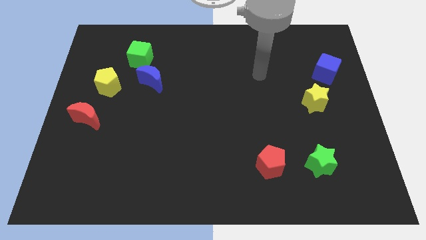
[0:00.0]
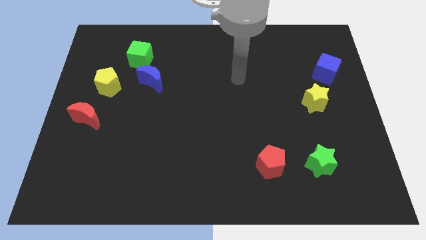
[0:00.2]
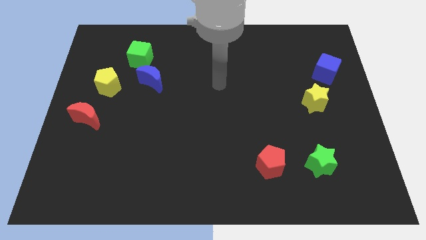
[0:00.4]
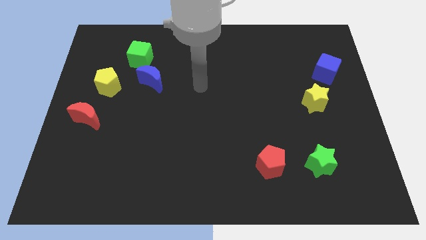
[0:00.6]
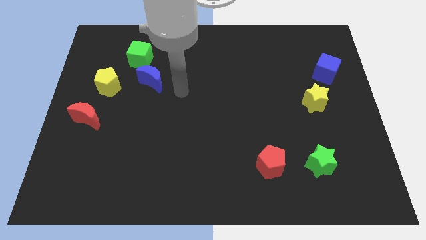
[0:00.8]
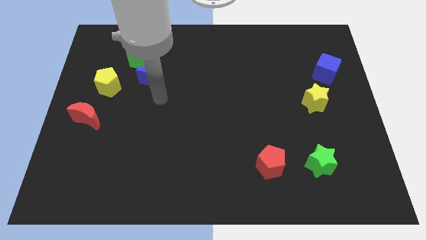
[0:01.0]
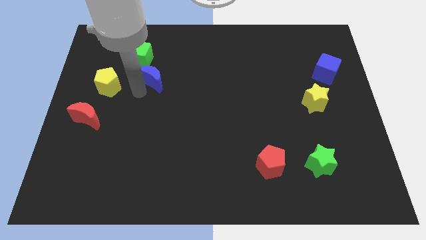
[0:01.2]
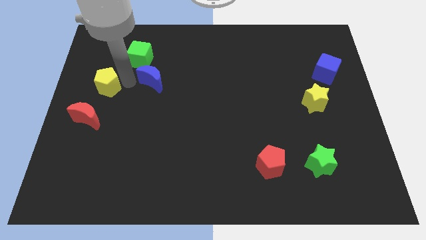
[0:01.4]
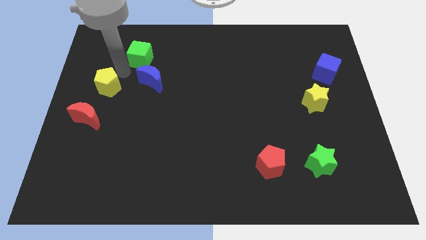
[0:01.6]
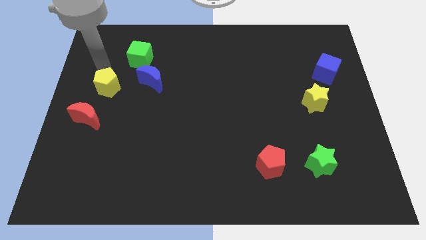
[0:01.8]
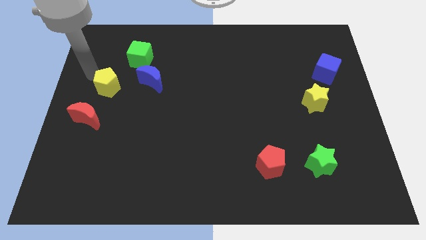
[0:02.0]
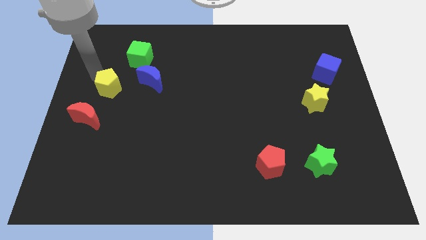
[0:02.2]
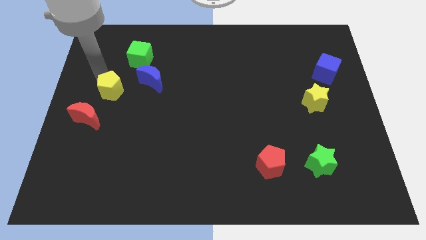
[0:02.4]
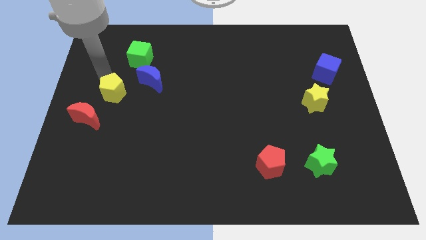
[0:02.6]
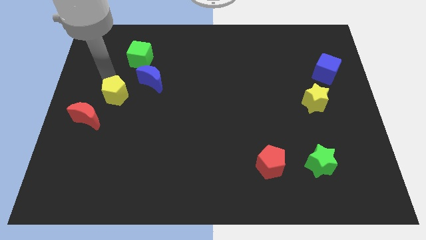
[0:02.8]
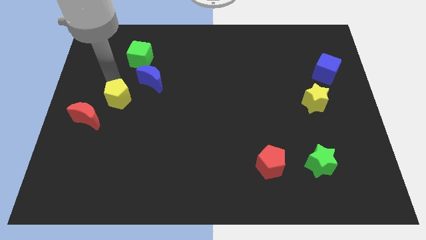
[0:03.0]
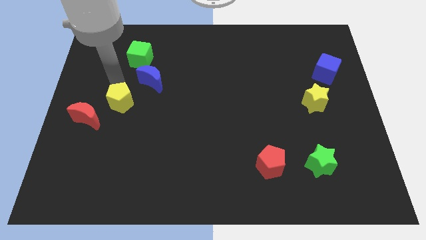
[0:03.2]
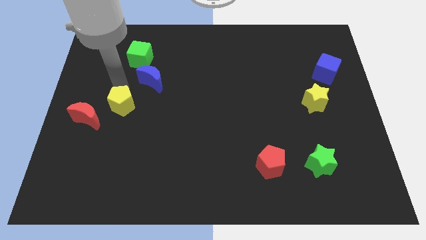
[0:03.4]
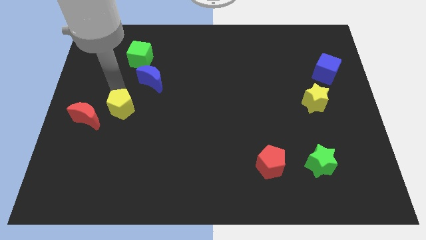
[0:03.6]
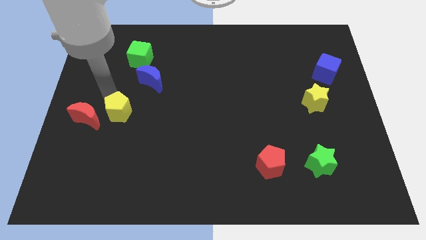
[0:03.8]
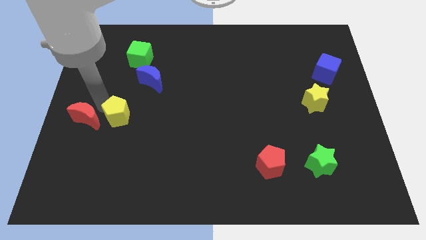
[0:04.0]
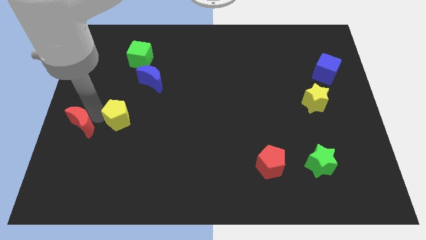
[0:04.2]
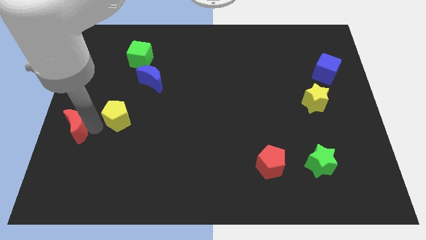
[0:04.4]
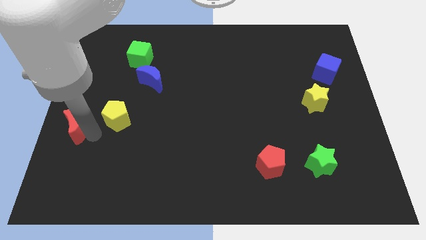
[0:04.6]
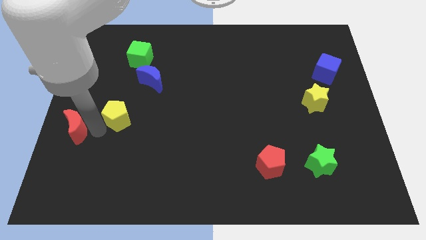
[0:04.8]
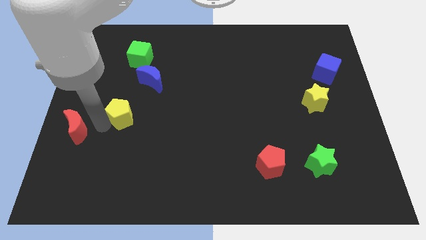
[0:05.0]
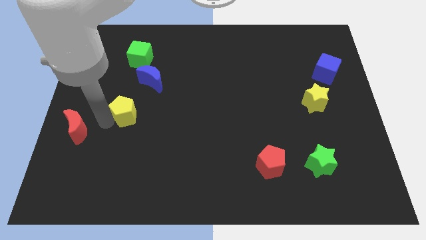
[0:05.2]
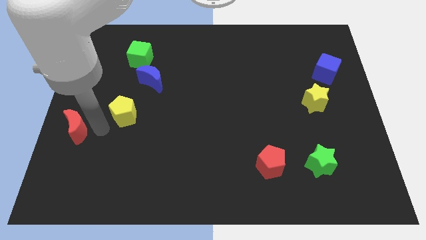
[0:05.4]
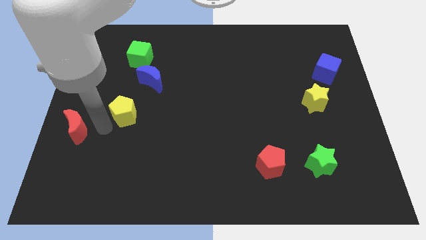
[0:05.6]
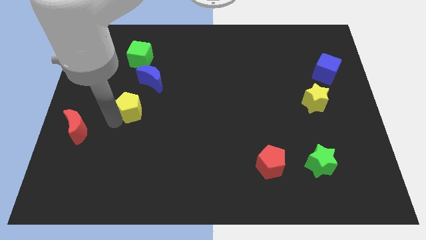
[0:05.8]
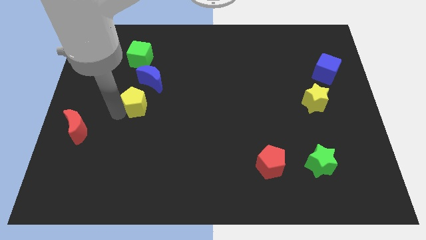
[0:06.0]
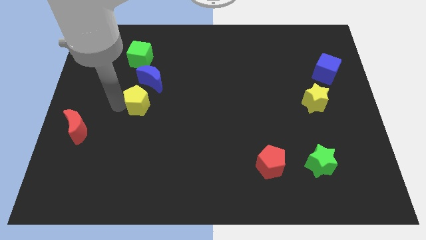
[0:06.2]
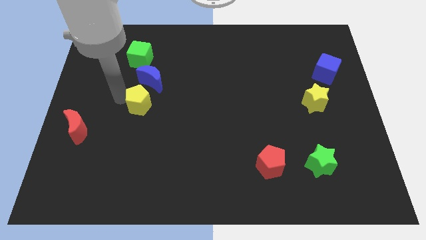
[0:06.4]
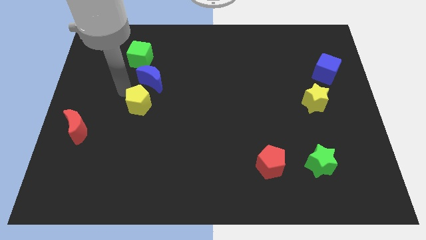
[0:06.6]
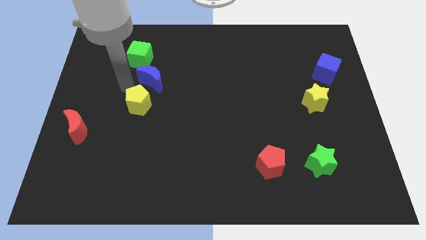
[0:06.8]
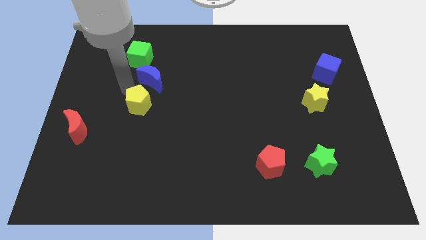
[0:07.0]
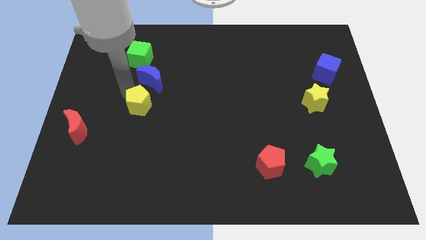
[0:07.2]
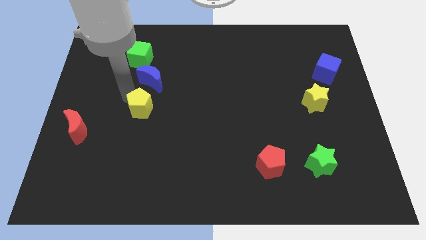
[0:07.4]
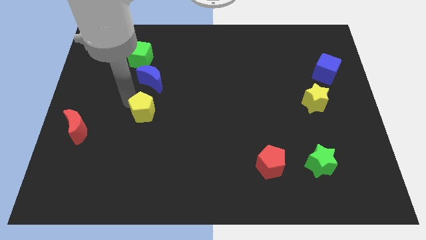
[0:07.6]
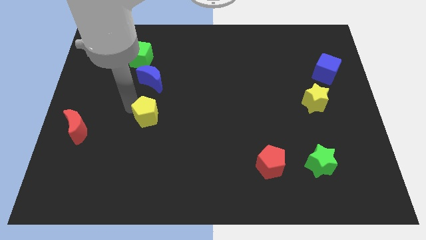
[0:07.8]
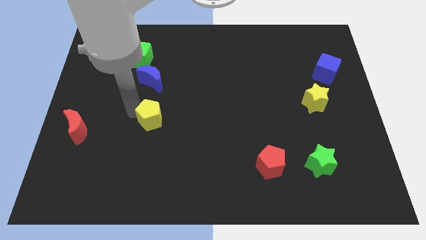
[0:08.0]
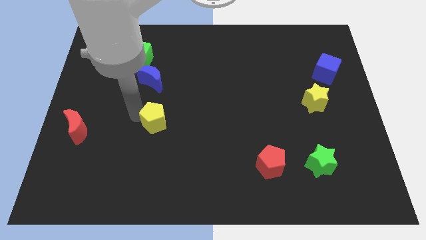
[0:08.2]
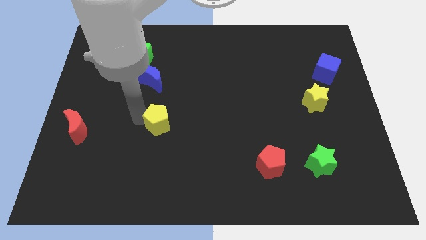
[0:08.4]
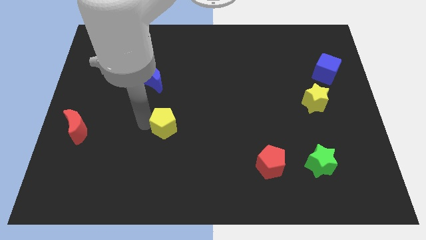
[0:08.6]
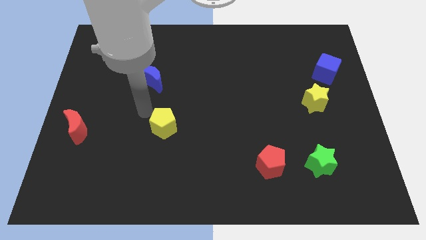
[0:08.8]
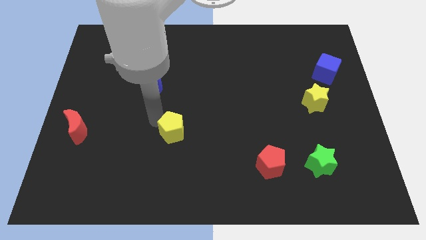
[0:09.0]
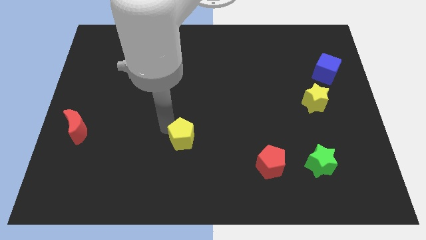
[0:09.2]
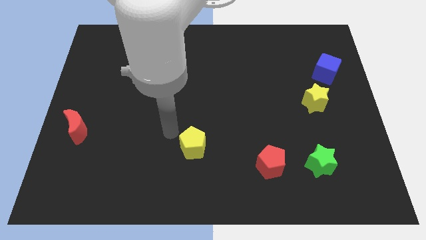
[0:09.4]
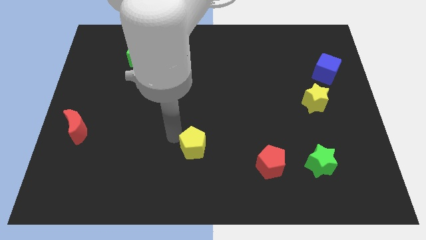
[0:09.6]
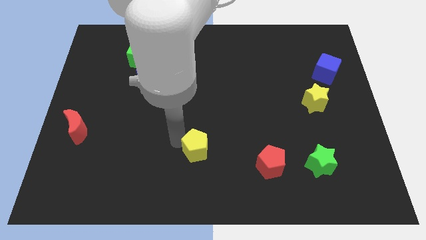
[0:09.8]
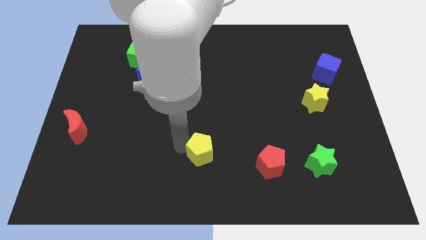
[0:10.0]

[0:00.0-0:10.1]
put the yellow pentagon left of the red pentagon

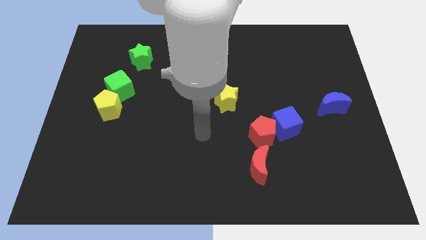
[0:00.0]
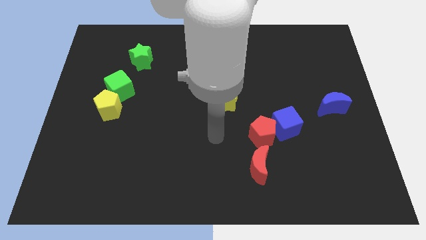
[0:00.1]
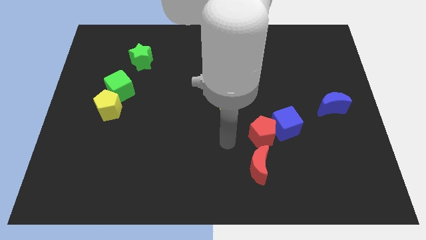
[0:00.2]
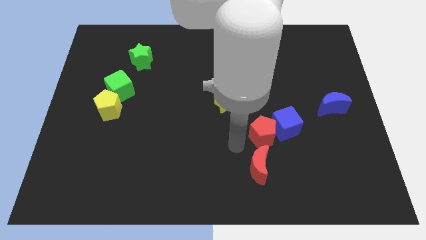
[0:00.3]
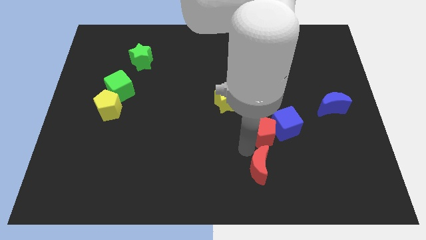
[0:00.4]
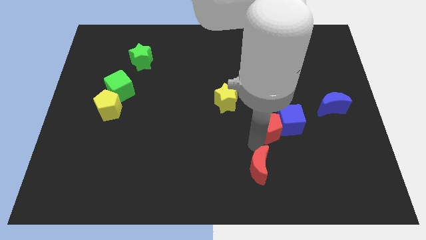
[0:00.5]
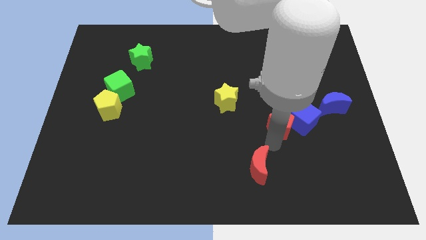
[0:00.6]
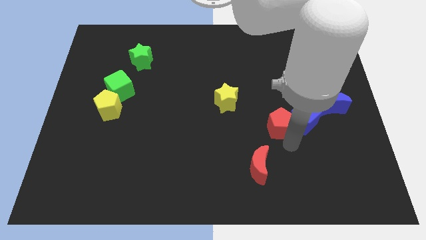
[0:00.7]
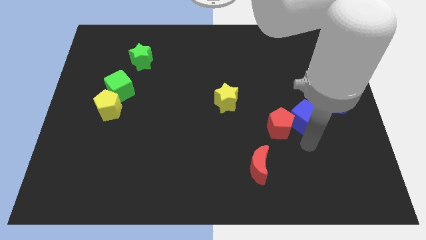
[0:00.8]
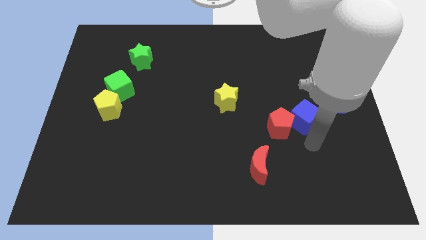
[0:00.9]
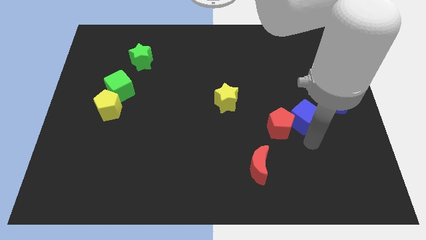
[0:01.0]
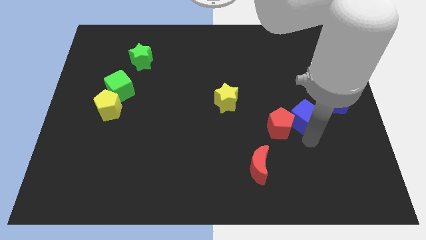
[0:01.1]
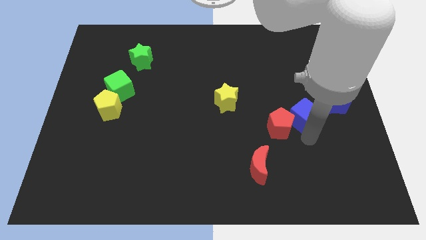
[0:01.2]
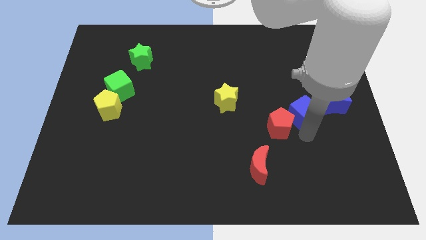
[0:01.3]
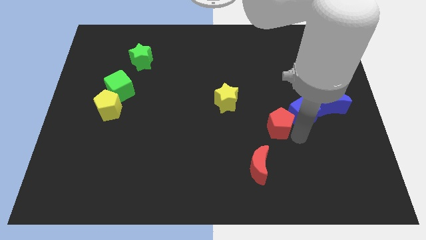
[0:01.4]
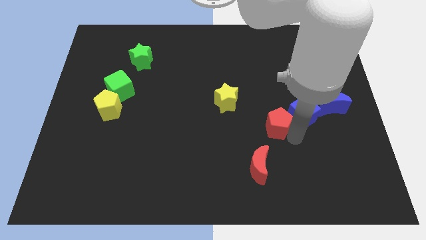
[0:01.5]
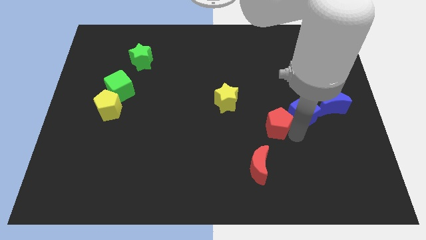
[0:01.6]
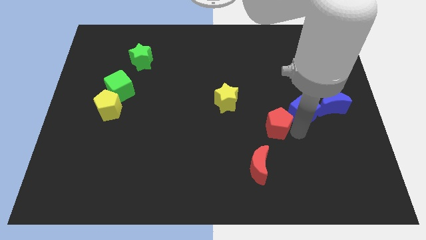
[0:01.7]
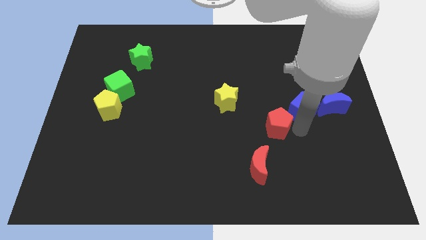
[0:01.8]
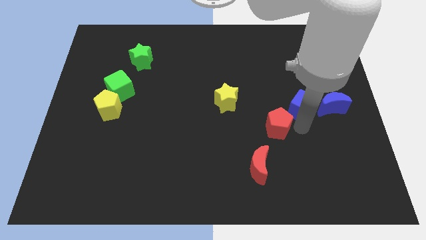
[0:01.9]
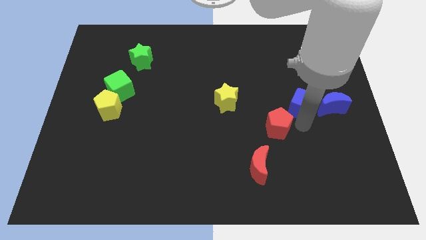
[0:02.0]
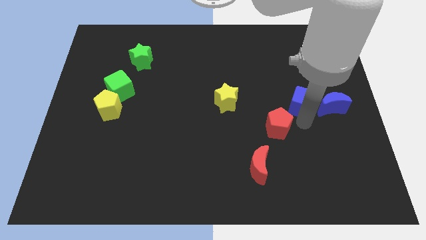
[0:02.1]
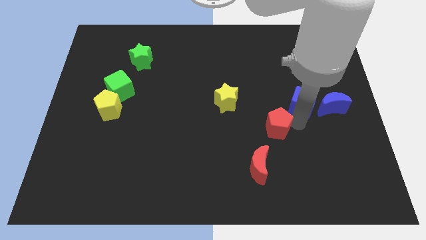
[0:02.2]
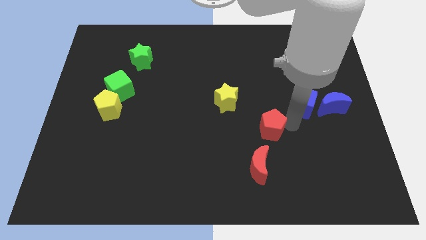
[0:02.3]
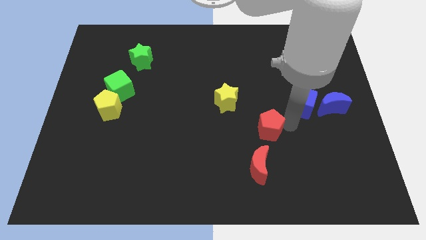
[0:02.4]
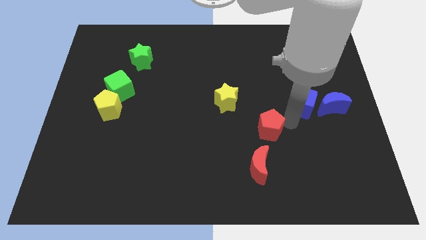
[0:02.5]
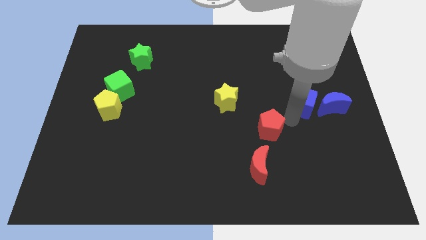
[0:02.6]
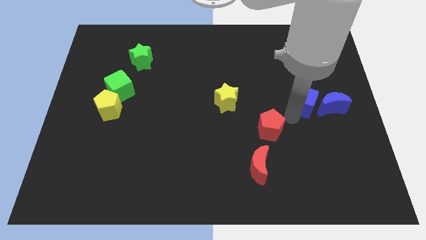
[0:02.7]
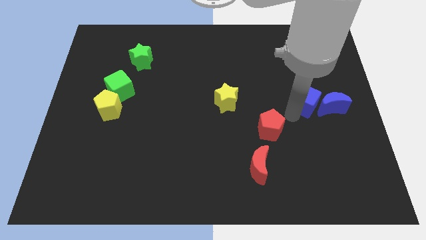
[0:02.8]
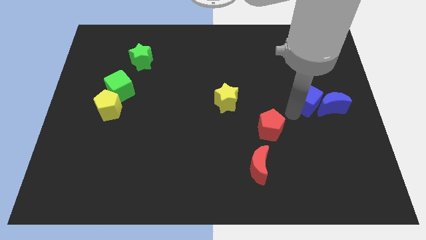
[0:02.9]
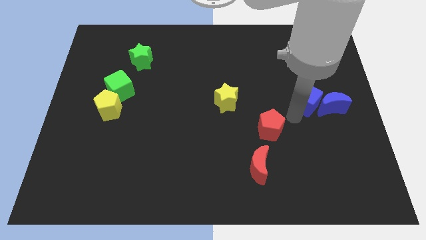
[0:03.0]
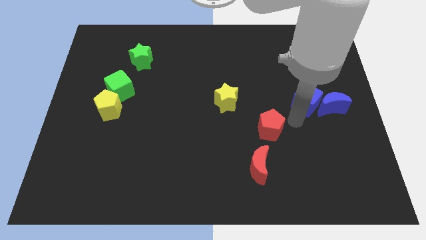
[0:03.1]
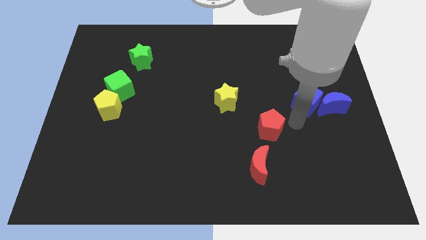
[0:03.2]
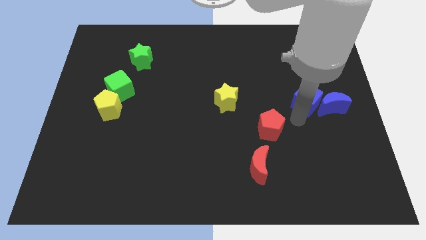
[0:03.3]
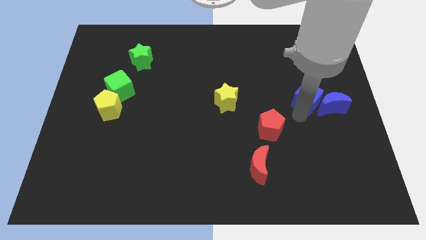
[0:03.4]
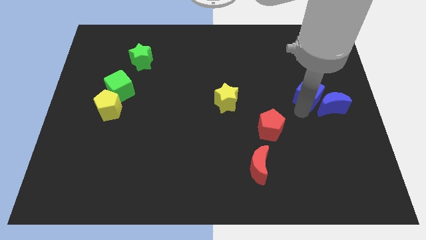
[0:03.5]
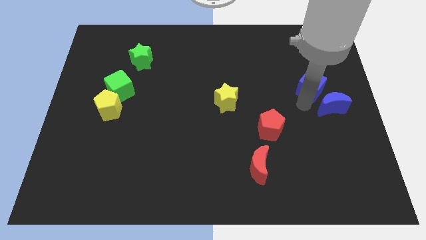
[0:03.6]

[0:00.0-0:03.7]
slide the blue cube above the blue moon
